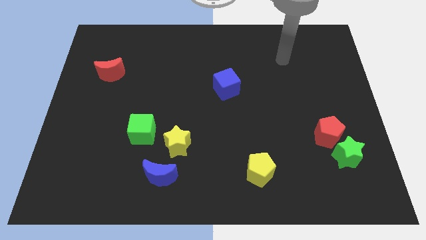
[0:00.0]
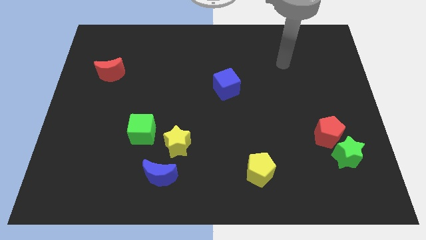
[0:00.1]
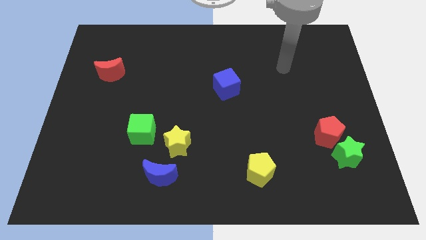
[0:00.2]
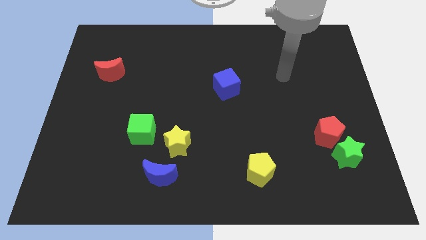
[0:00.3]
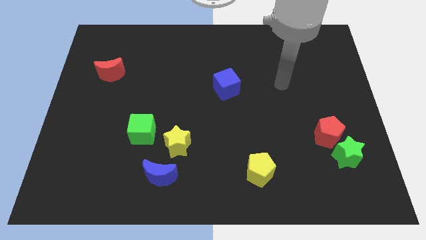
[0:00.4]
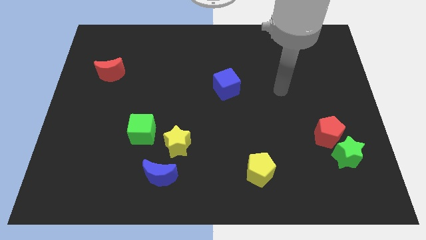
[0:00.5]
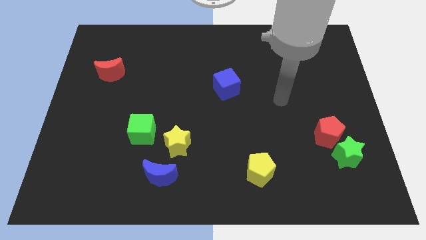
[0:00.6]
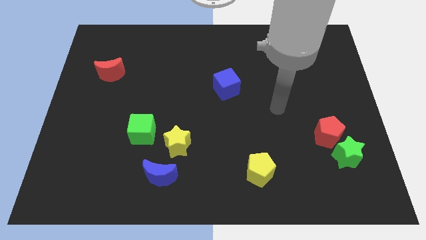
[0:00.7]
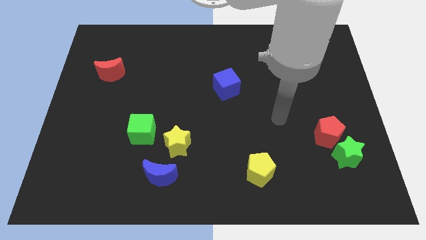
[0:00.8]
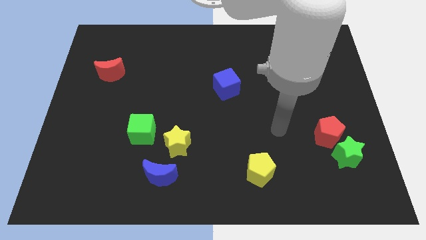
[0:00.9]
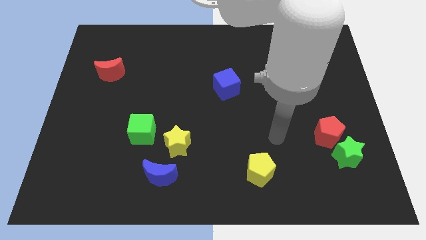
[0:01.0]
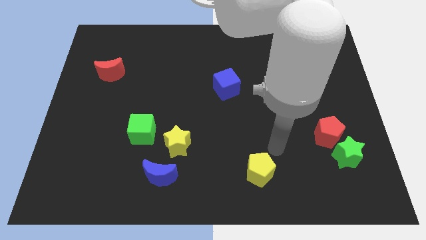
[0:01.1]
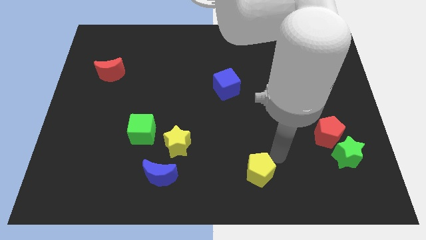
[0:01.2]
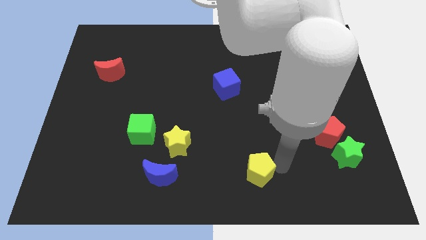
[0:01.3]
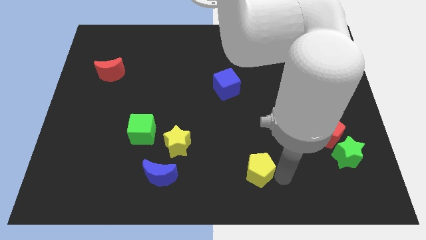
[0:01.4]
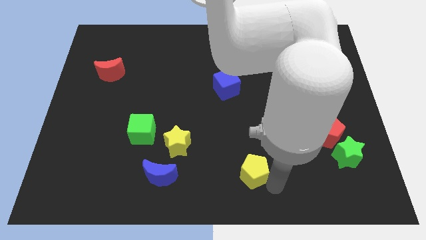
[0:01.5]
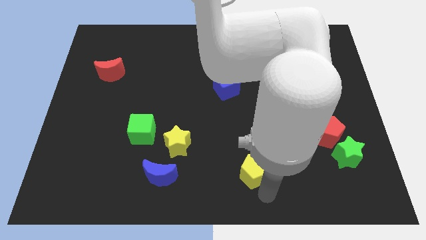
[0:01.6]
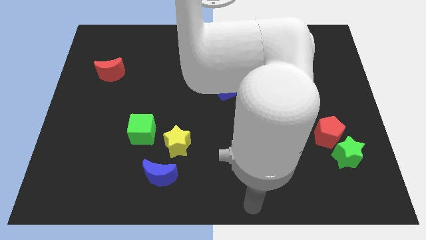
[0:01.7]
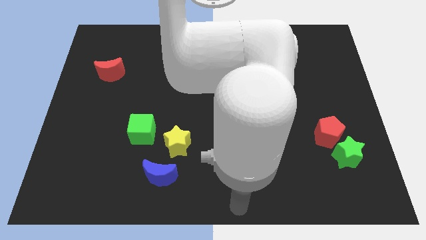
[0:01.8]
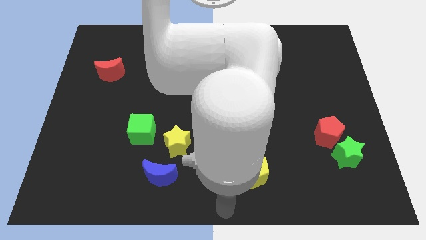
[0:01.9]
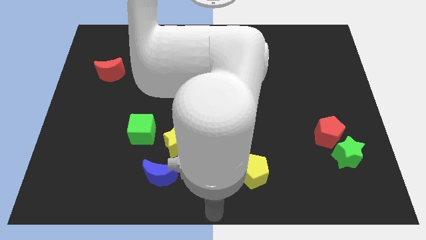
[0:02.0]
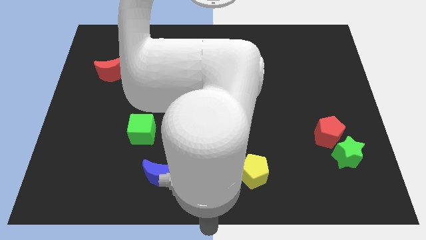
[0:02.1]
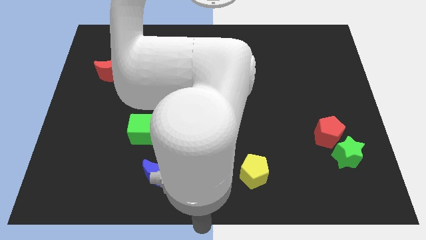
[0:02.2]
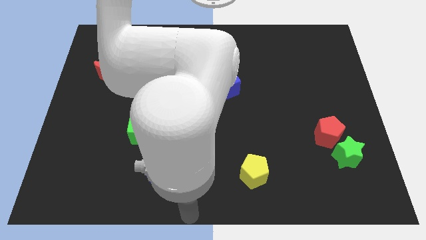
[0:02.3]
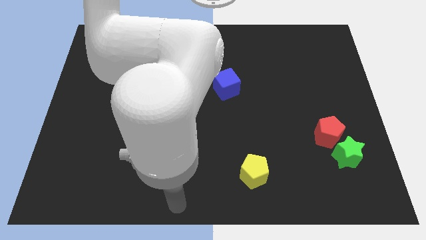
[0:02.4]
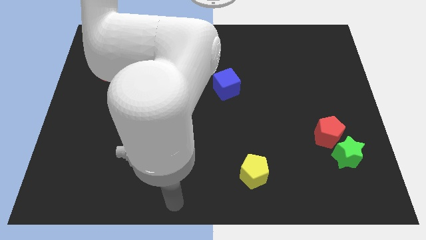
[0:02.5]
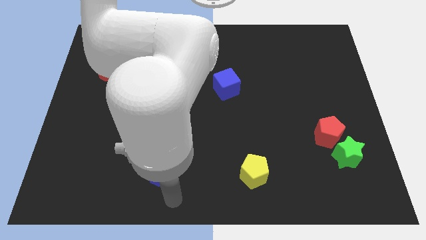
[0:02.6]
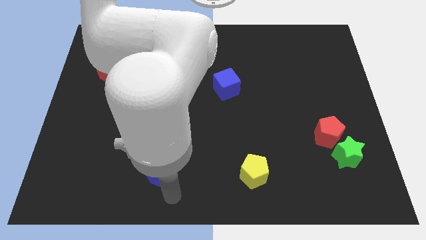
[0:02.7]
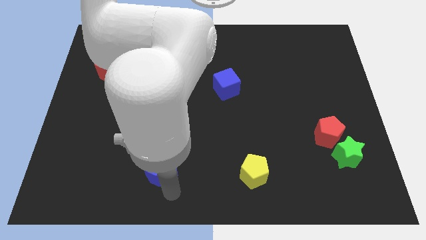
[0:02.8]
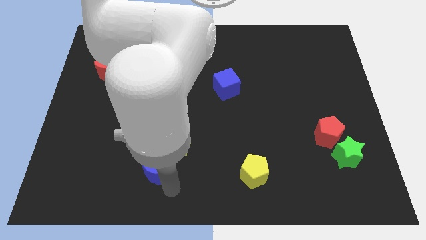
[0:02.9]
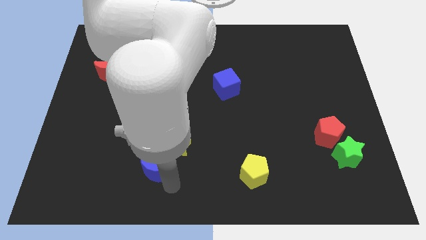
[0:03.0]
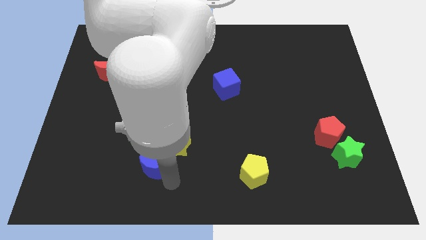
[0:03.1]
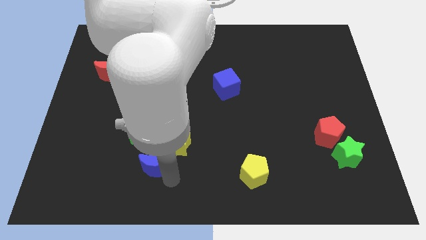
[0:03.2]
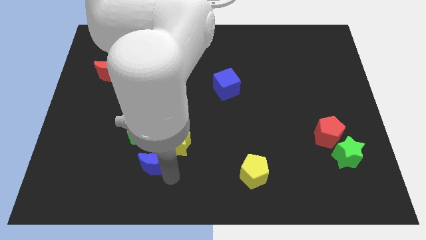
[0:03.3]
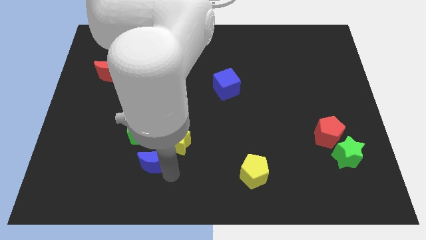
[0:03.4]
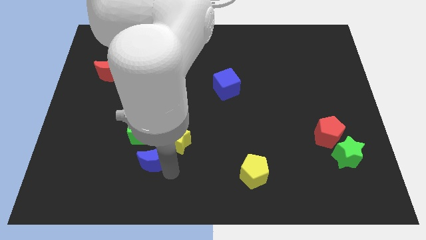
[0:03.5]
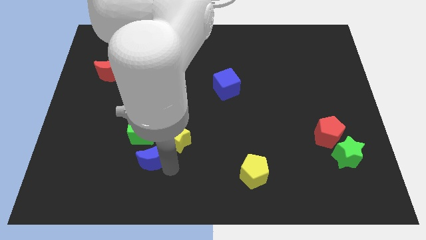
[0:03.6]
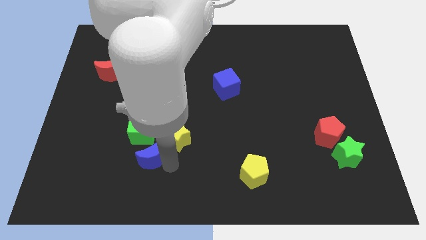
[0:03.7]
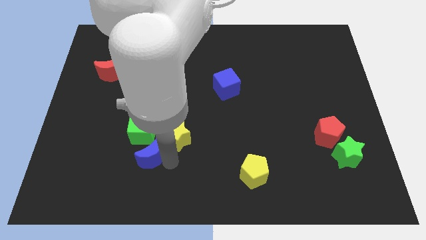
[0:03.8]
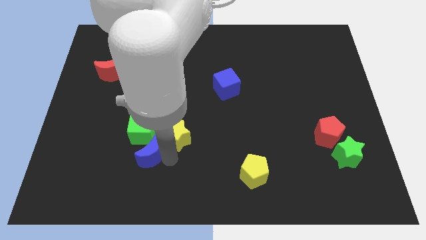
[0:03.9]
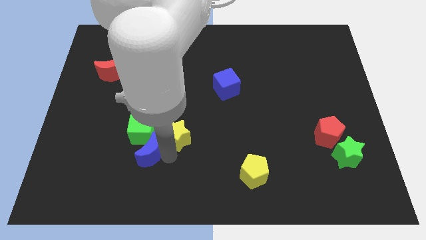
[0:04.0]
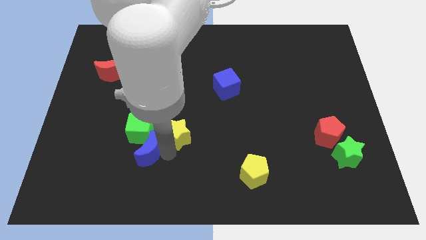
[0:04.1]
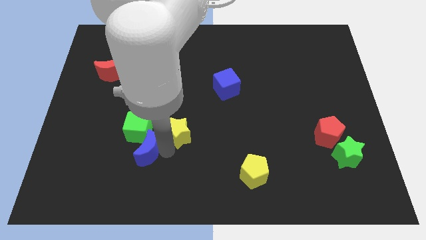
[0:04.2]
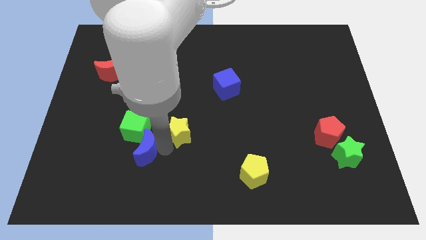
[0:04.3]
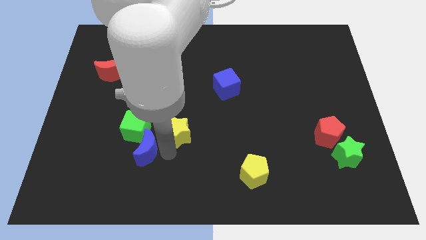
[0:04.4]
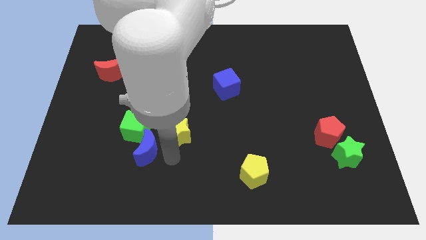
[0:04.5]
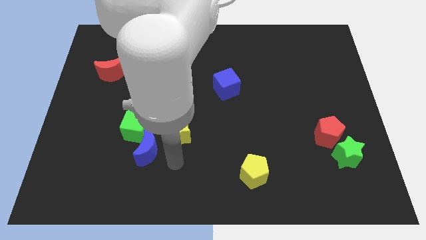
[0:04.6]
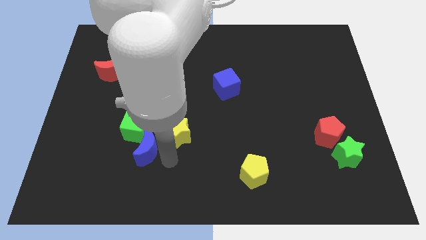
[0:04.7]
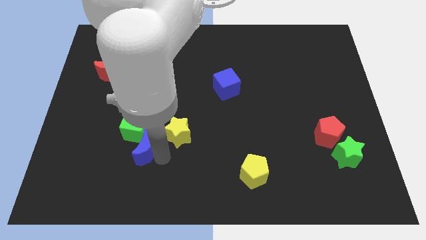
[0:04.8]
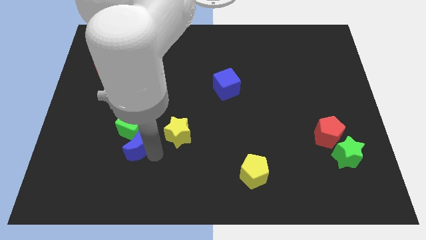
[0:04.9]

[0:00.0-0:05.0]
slightly push the blue moon diagonally upwards and to the left

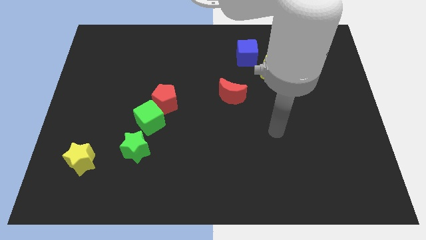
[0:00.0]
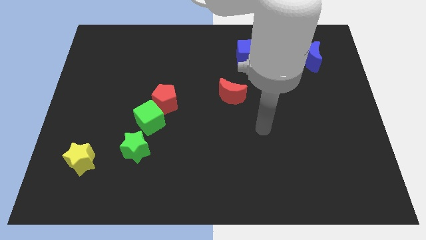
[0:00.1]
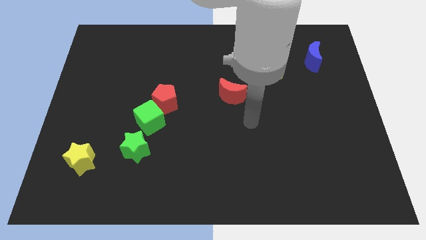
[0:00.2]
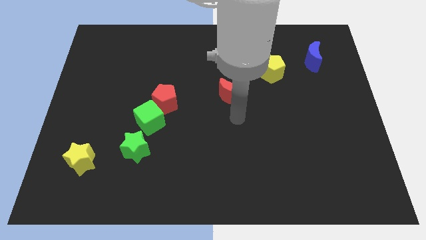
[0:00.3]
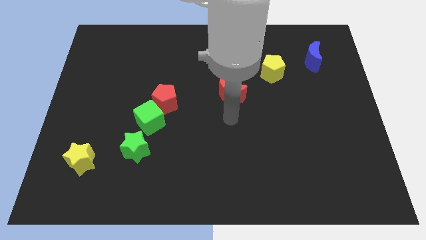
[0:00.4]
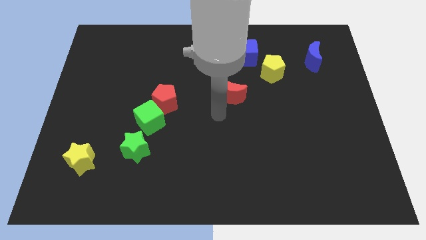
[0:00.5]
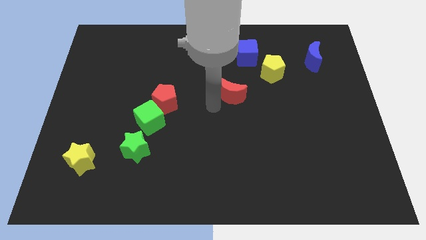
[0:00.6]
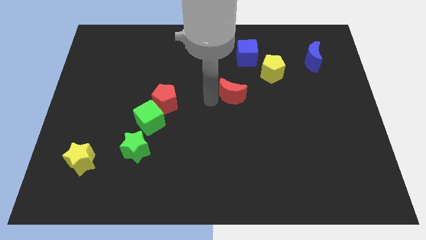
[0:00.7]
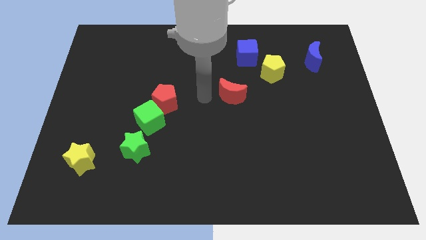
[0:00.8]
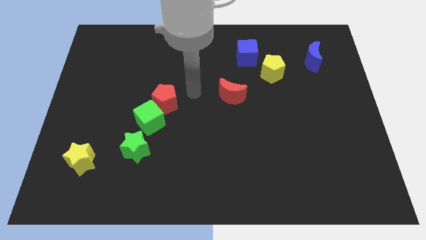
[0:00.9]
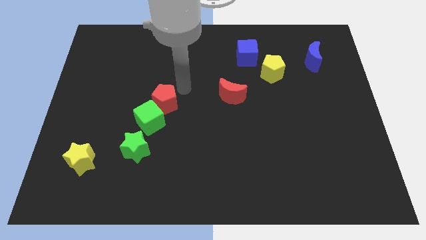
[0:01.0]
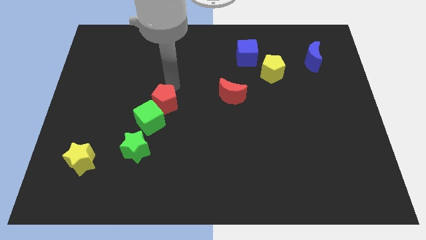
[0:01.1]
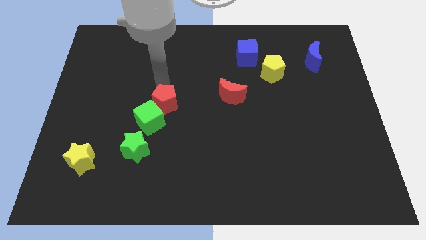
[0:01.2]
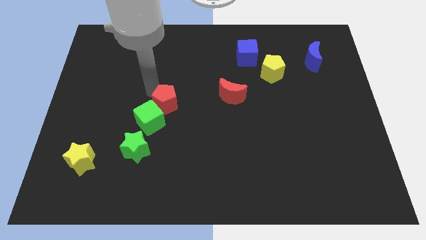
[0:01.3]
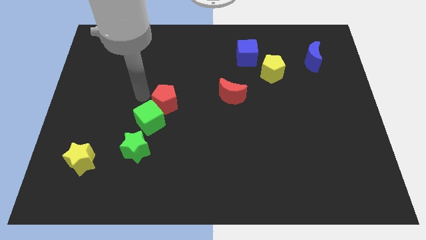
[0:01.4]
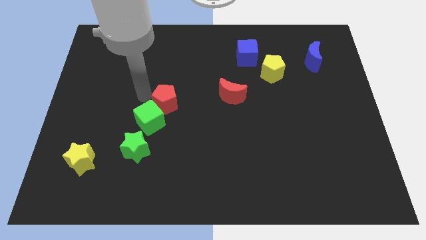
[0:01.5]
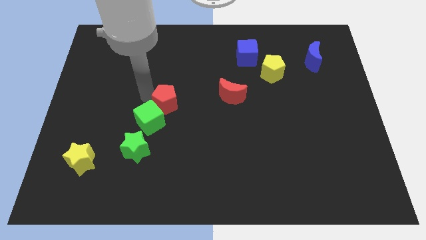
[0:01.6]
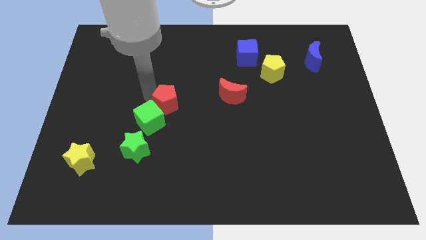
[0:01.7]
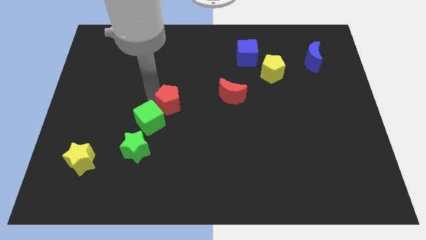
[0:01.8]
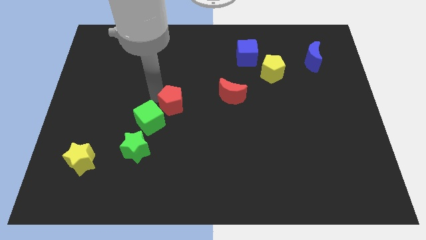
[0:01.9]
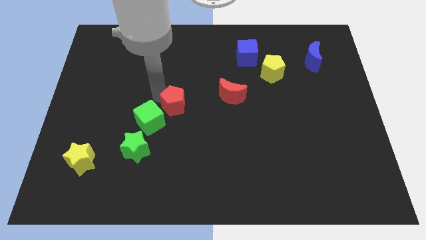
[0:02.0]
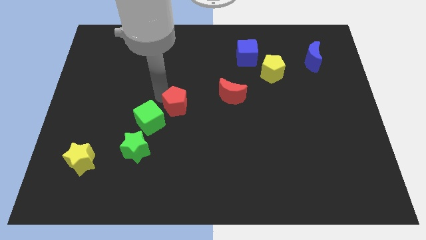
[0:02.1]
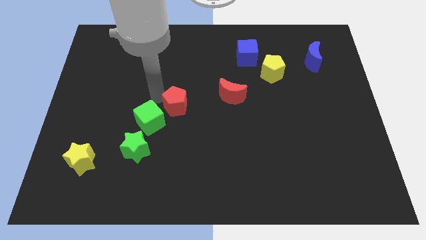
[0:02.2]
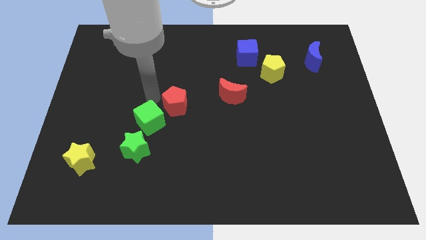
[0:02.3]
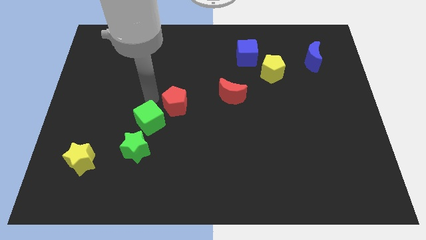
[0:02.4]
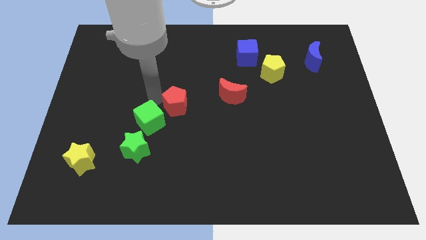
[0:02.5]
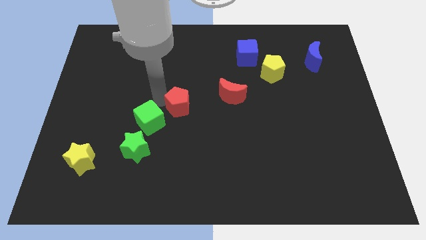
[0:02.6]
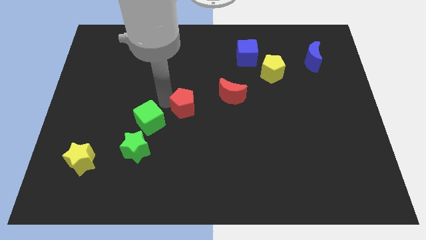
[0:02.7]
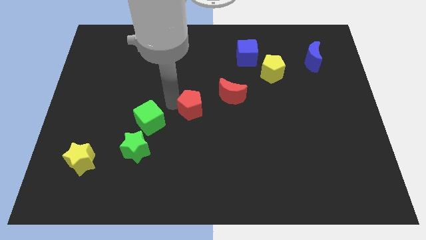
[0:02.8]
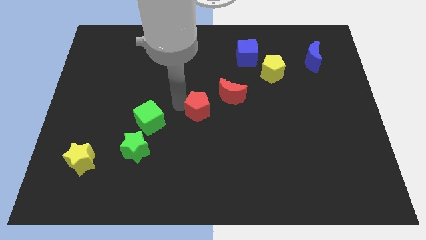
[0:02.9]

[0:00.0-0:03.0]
slide the red pentagon to the right a little
